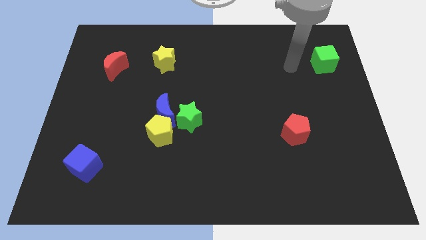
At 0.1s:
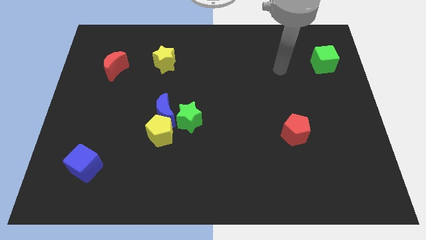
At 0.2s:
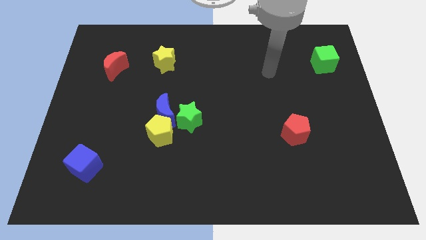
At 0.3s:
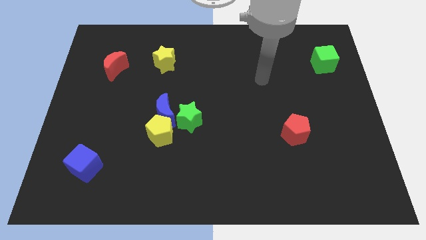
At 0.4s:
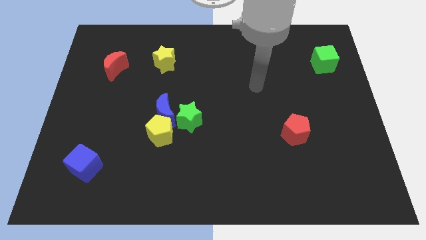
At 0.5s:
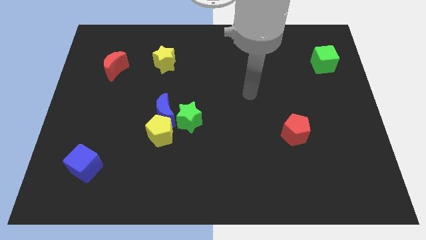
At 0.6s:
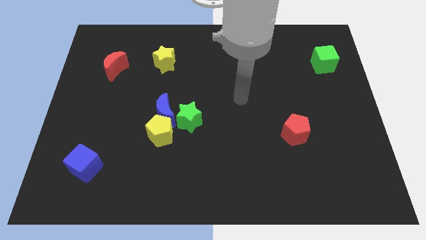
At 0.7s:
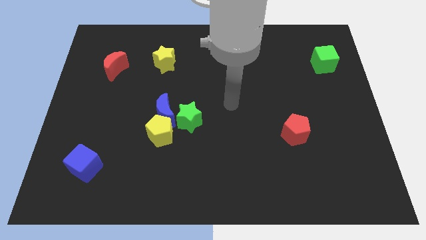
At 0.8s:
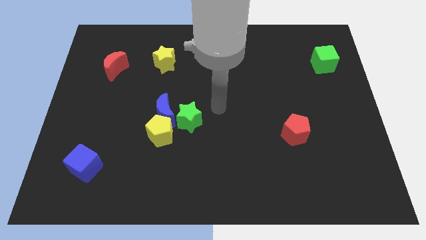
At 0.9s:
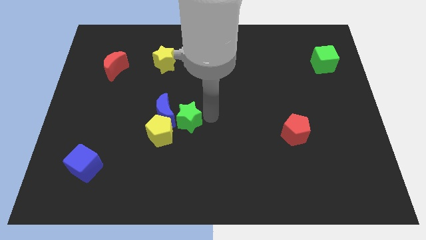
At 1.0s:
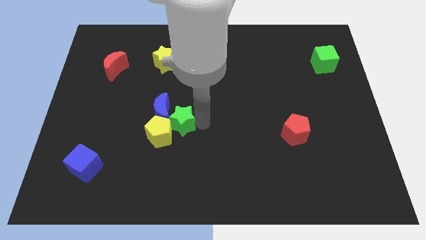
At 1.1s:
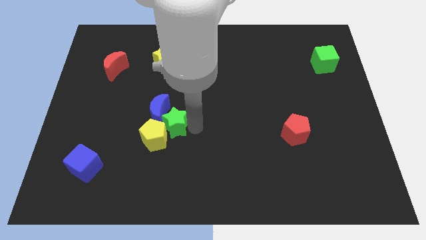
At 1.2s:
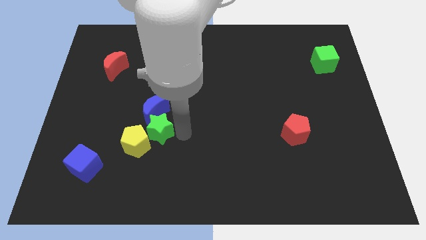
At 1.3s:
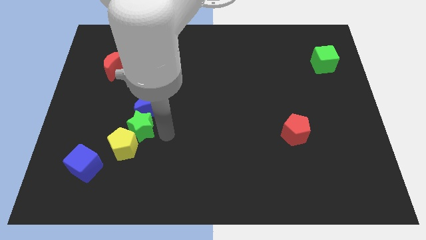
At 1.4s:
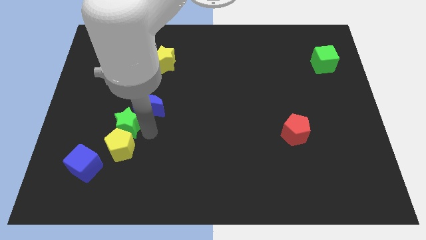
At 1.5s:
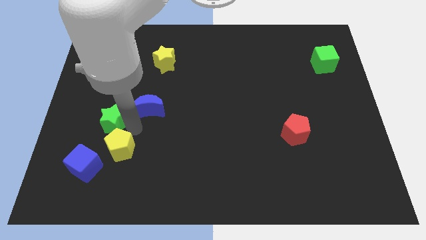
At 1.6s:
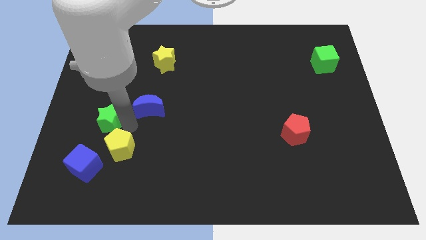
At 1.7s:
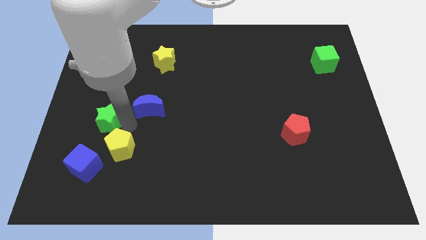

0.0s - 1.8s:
move the blue moon away from the yellow pentagon and green star

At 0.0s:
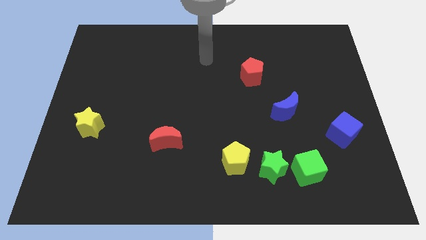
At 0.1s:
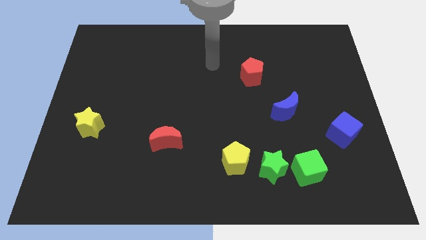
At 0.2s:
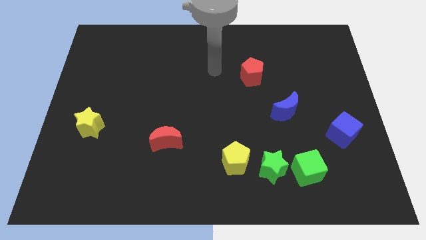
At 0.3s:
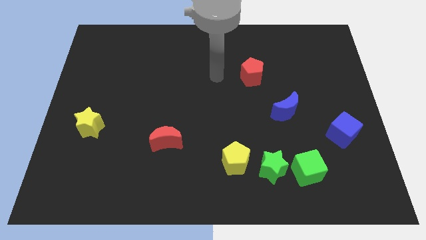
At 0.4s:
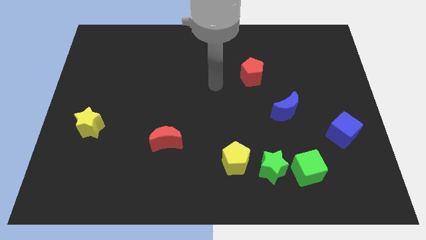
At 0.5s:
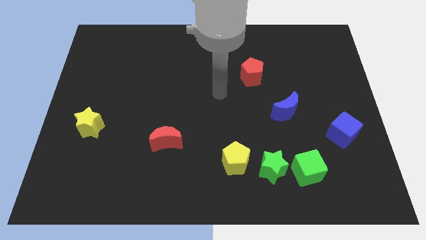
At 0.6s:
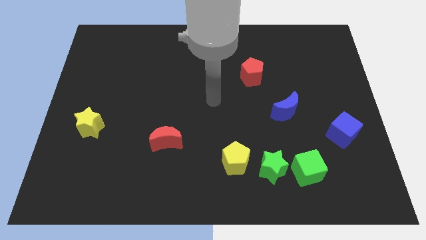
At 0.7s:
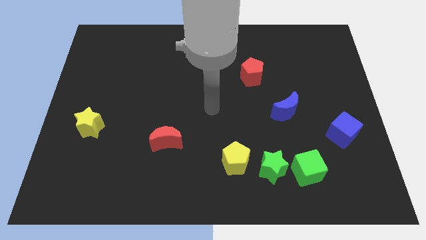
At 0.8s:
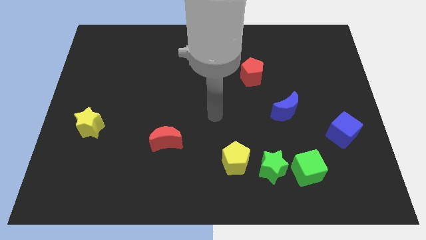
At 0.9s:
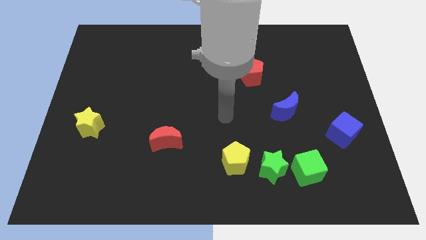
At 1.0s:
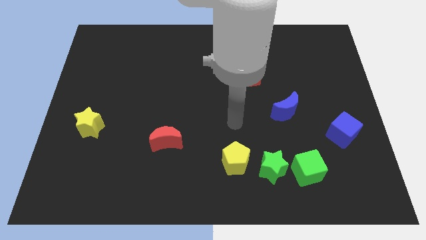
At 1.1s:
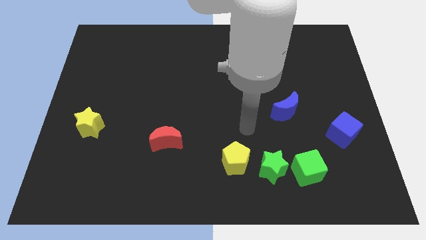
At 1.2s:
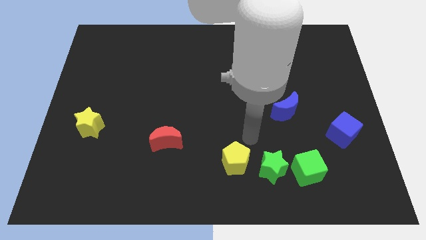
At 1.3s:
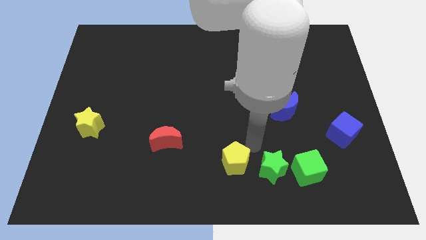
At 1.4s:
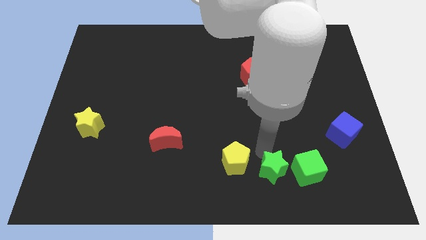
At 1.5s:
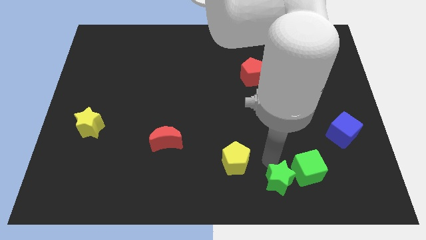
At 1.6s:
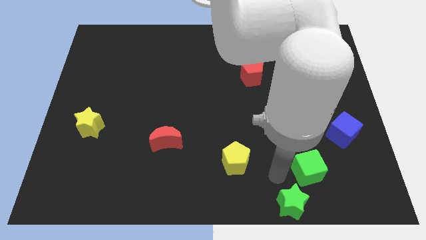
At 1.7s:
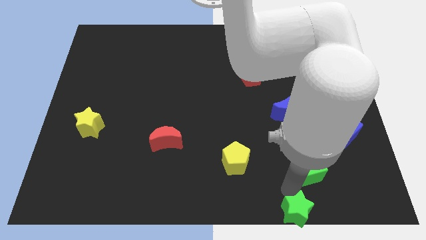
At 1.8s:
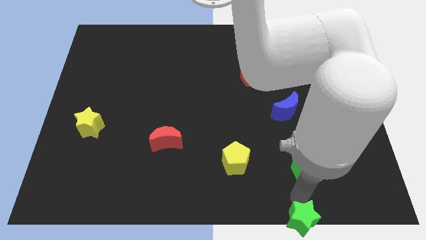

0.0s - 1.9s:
separate the green cube from the green star

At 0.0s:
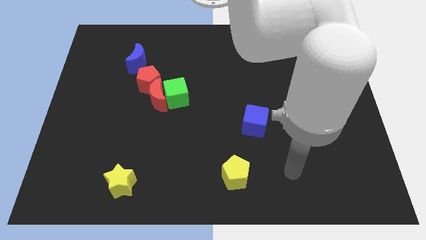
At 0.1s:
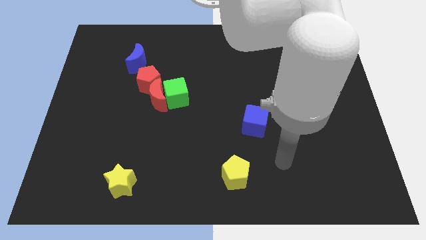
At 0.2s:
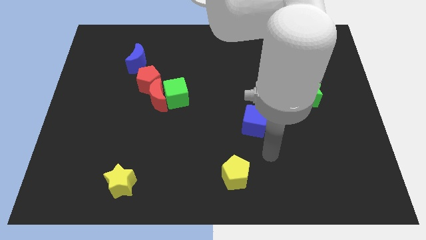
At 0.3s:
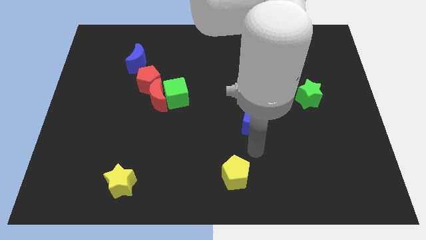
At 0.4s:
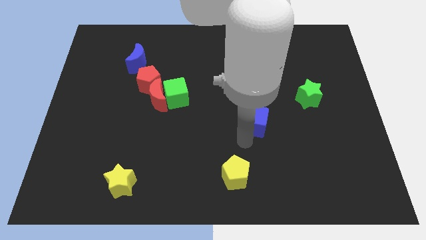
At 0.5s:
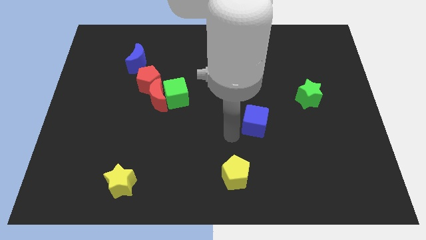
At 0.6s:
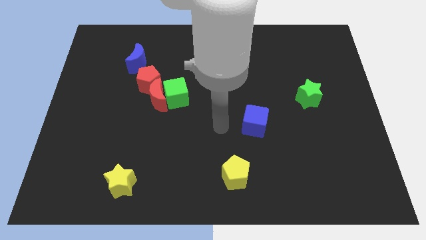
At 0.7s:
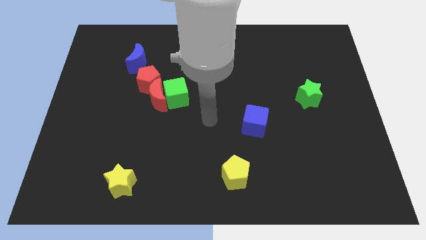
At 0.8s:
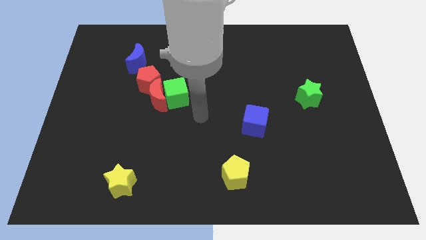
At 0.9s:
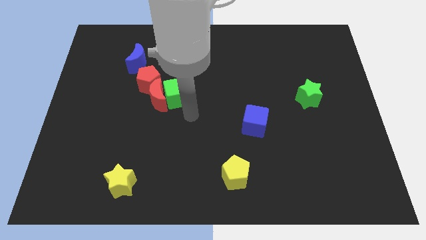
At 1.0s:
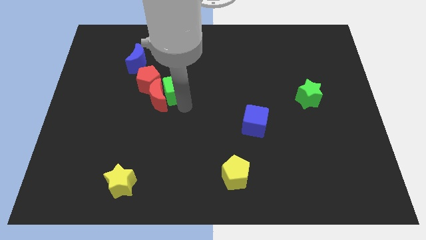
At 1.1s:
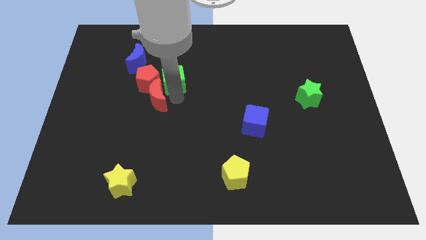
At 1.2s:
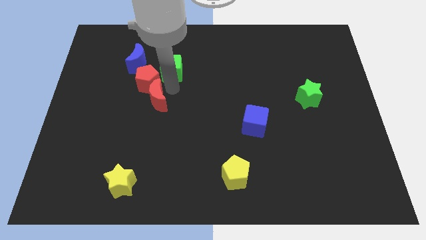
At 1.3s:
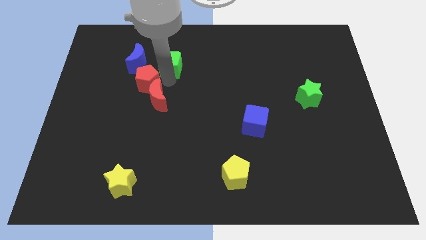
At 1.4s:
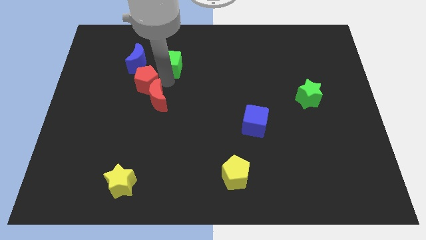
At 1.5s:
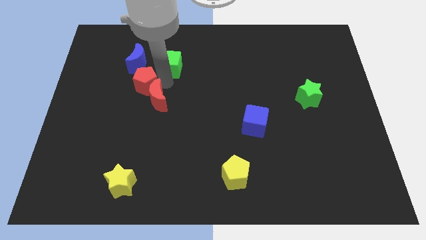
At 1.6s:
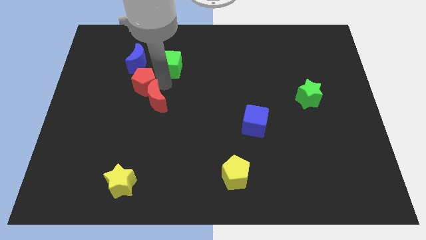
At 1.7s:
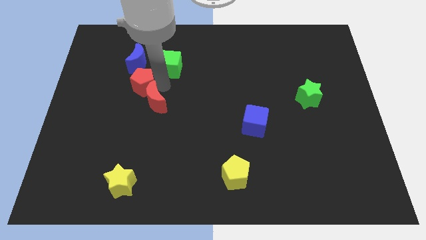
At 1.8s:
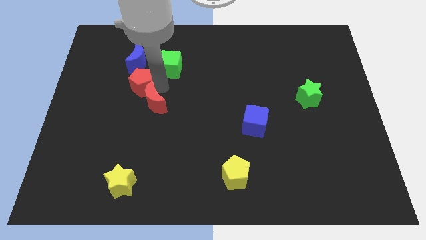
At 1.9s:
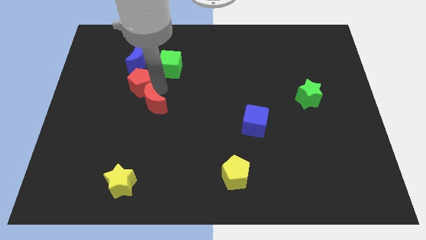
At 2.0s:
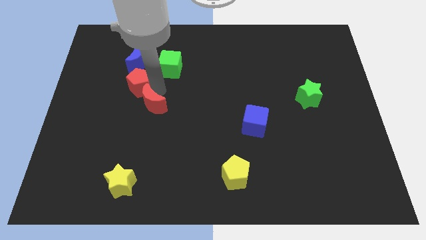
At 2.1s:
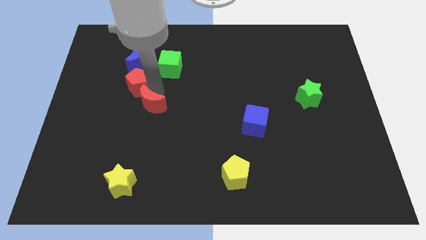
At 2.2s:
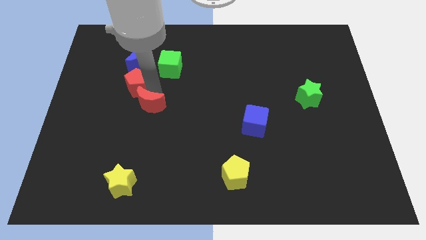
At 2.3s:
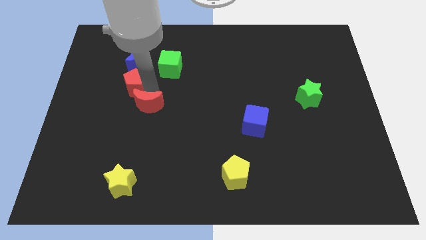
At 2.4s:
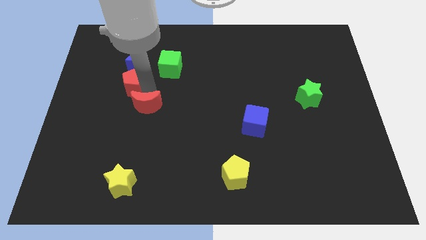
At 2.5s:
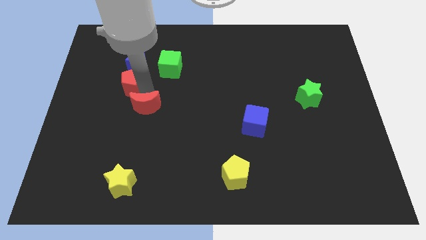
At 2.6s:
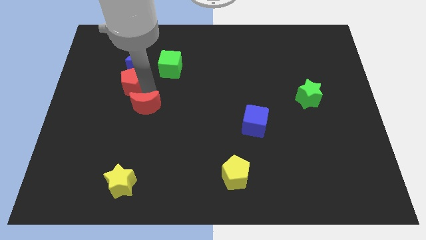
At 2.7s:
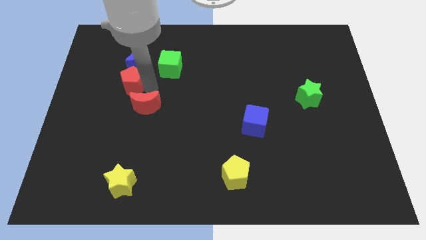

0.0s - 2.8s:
pull the red moon apart from the green cube and red pentagon

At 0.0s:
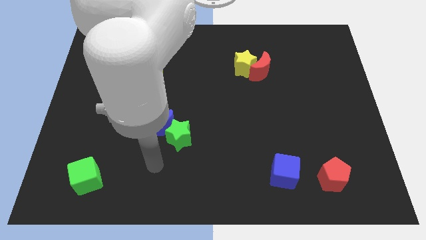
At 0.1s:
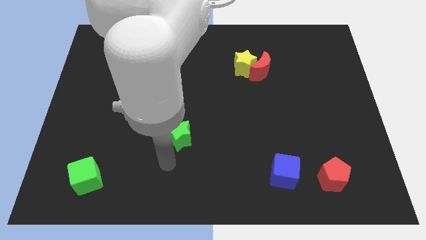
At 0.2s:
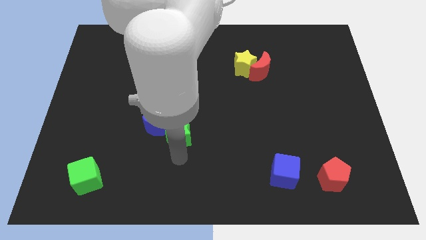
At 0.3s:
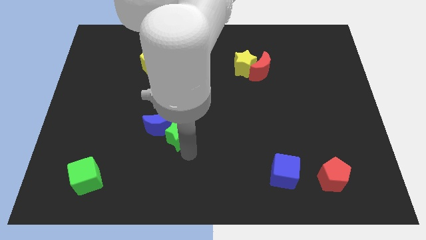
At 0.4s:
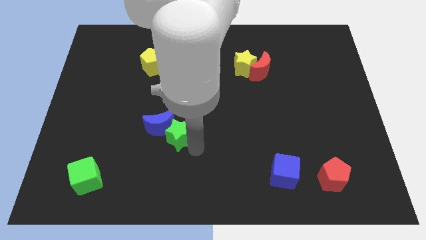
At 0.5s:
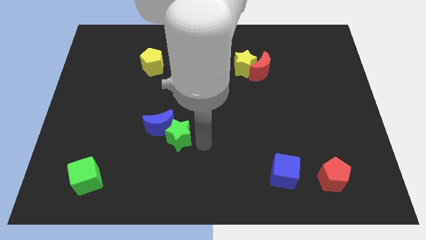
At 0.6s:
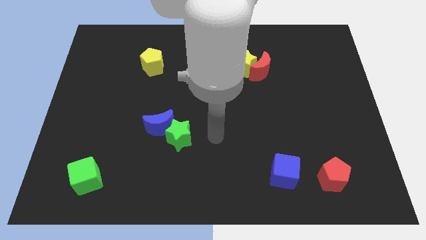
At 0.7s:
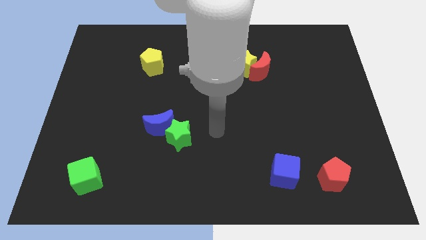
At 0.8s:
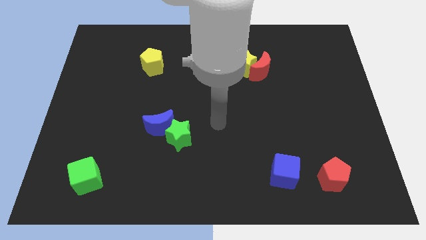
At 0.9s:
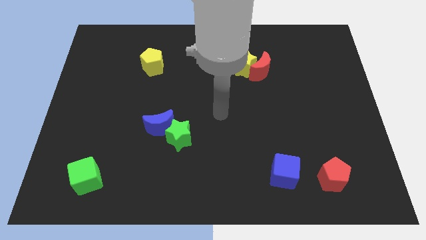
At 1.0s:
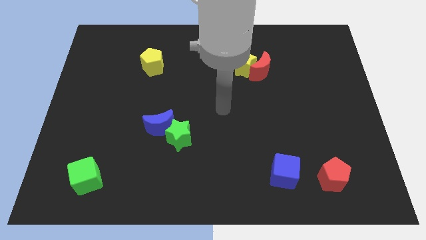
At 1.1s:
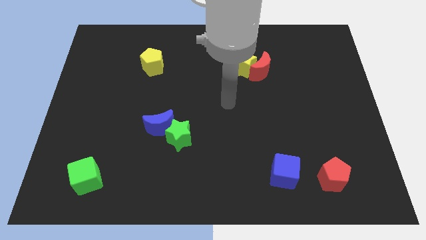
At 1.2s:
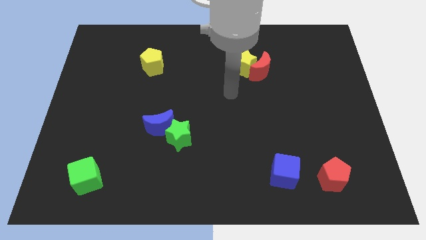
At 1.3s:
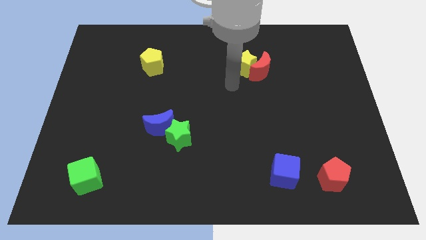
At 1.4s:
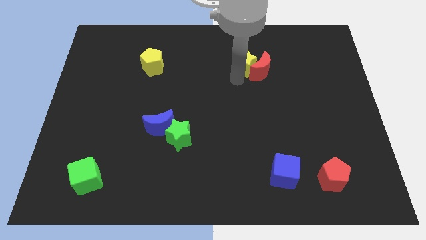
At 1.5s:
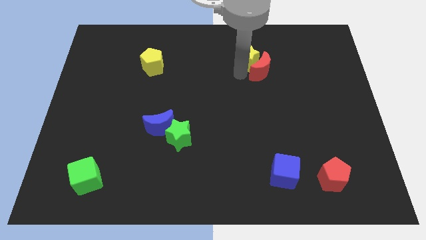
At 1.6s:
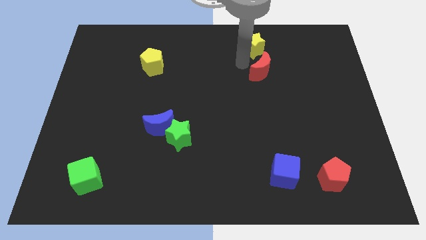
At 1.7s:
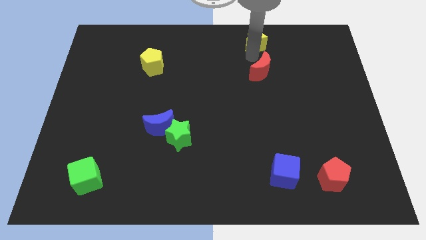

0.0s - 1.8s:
separate the red moon from the yellow star

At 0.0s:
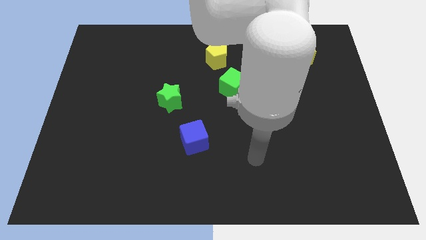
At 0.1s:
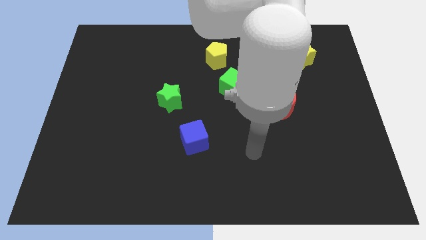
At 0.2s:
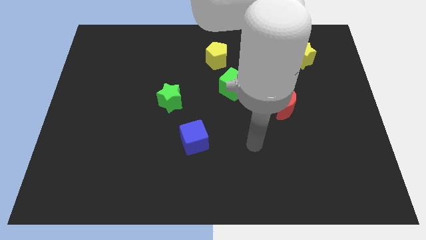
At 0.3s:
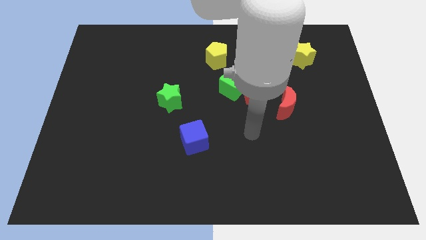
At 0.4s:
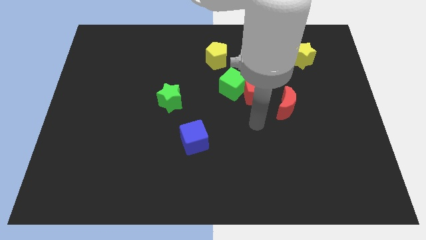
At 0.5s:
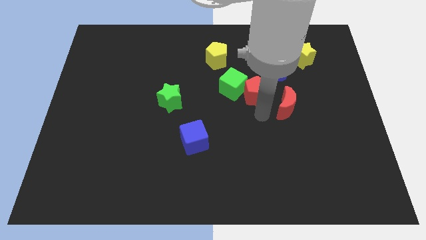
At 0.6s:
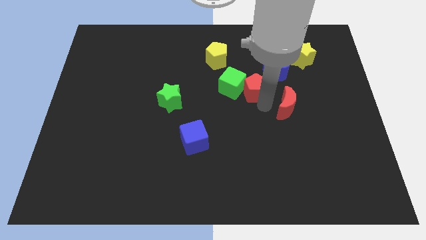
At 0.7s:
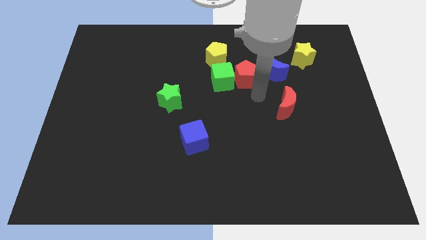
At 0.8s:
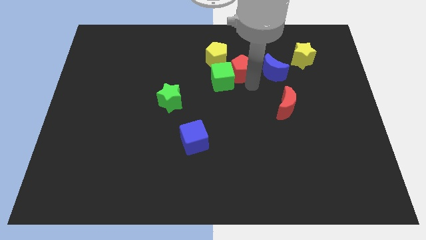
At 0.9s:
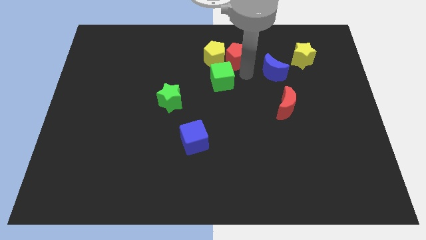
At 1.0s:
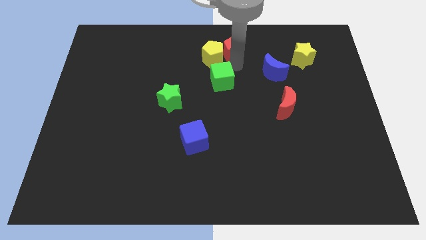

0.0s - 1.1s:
move the green cube away from the red pentagon
